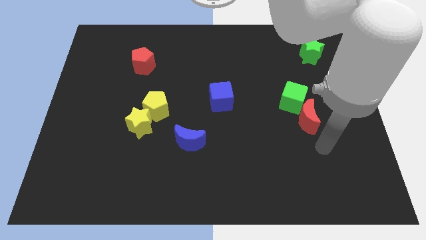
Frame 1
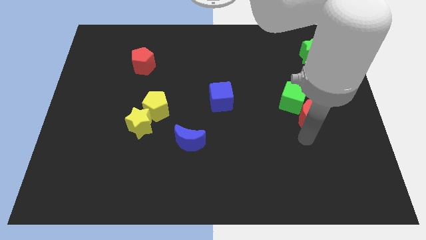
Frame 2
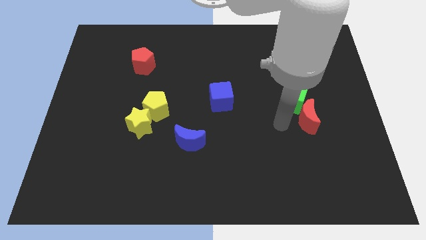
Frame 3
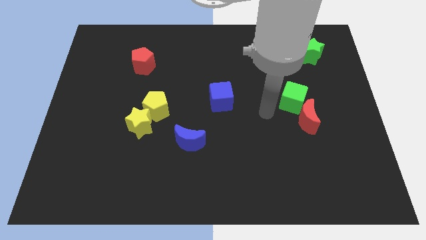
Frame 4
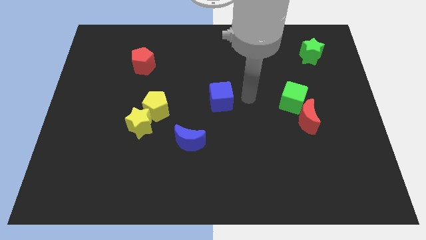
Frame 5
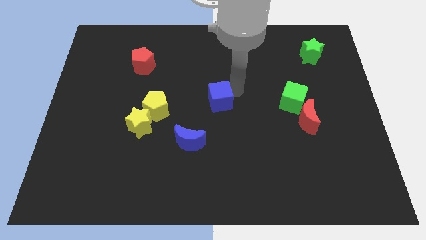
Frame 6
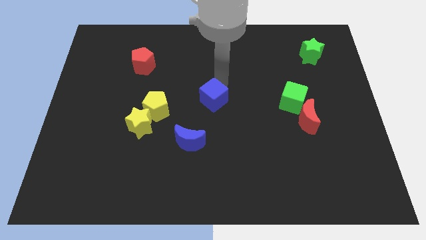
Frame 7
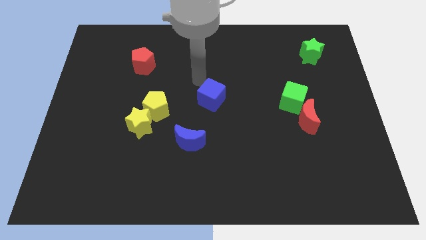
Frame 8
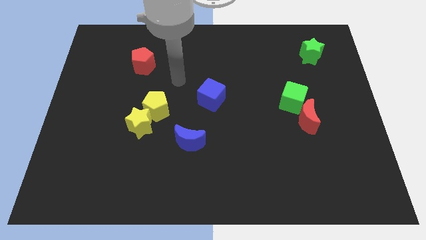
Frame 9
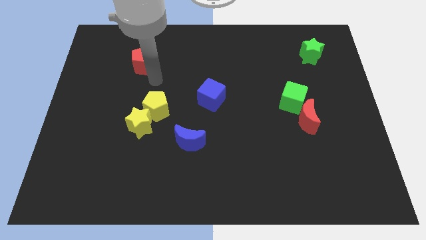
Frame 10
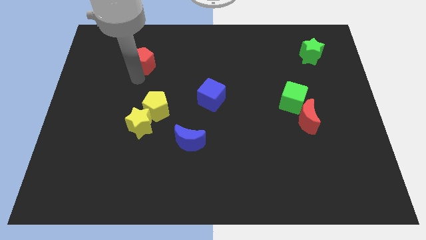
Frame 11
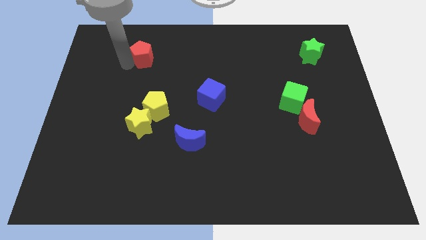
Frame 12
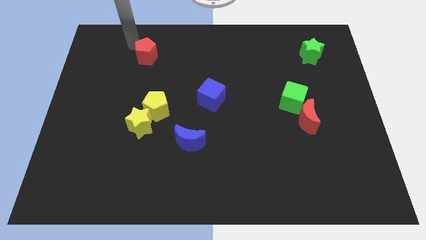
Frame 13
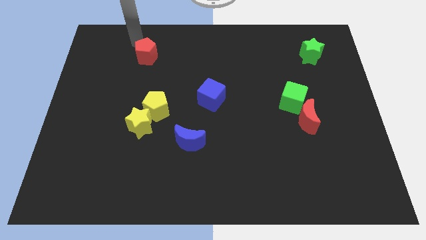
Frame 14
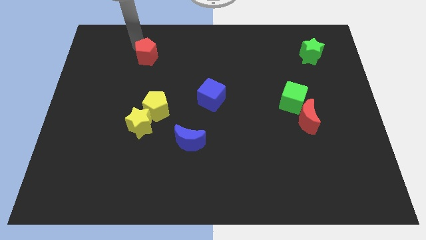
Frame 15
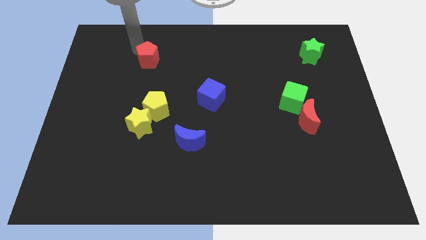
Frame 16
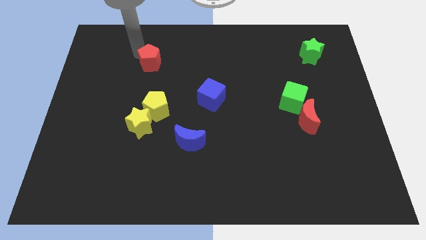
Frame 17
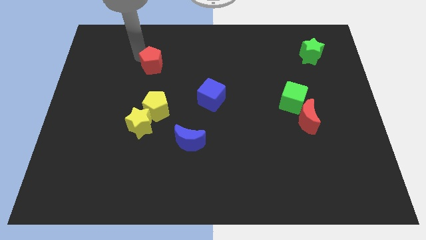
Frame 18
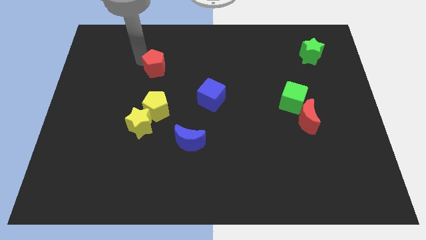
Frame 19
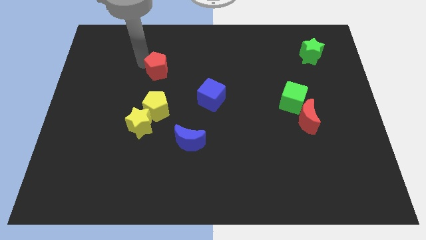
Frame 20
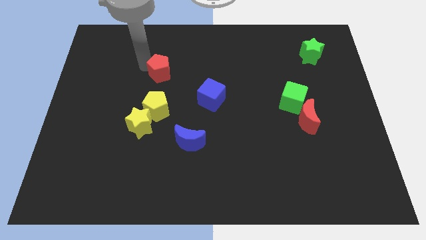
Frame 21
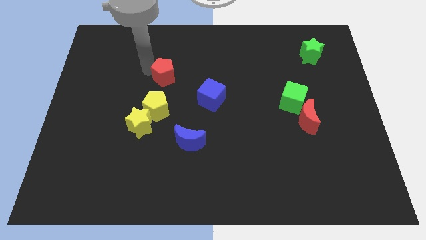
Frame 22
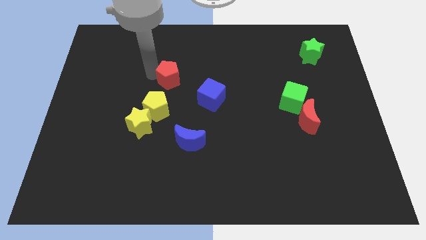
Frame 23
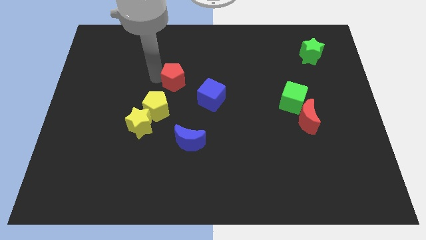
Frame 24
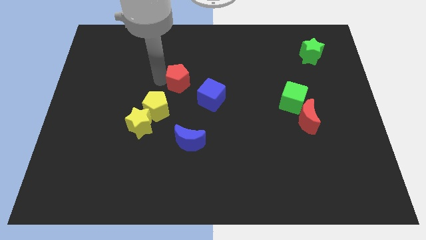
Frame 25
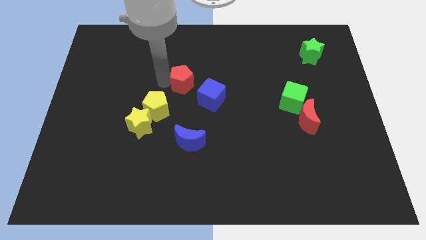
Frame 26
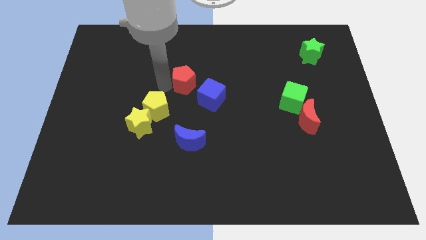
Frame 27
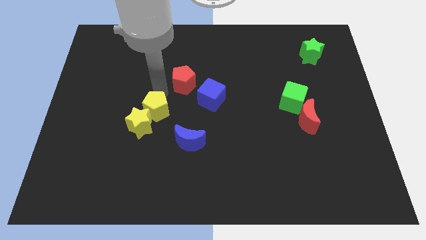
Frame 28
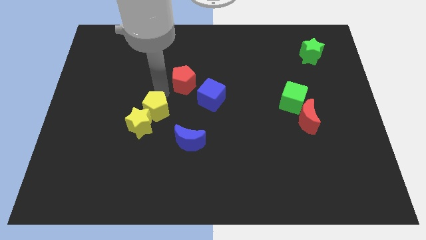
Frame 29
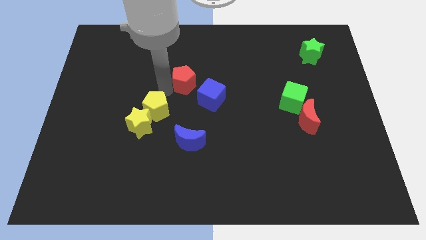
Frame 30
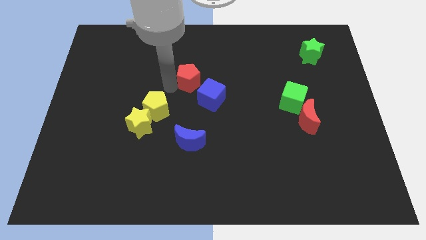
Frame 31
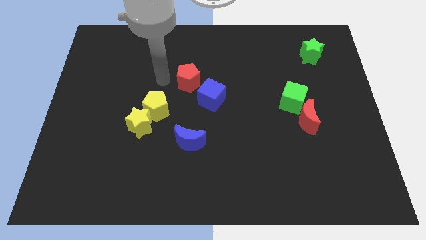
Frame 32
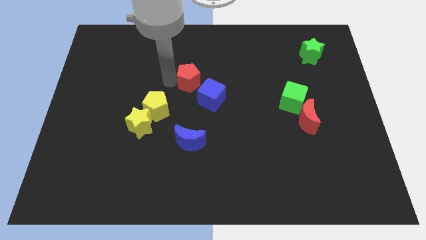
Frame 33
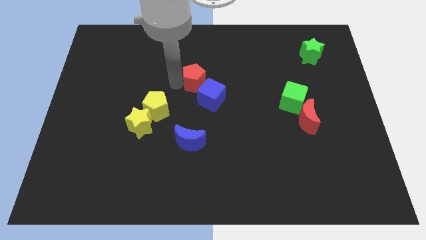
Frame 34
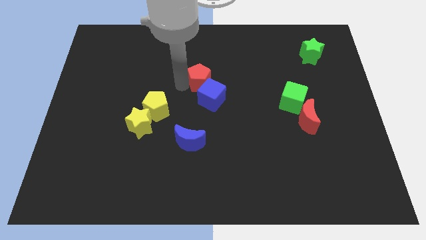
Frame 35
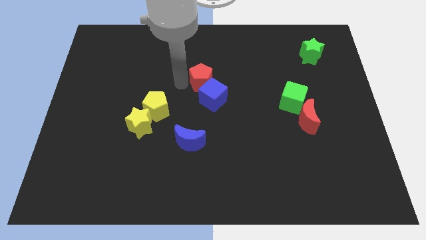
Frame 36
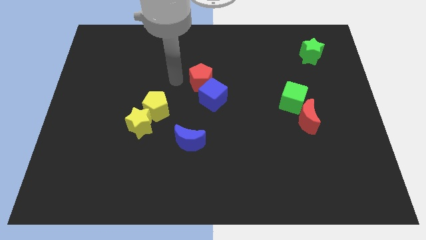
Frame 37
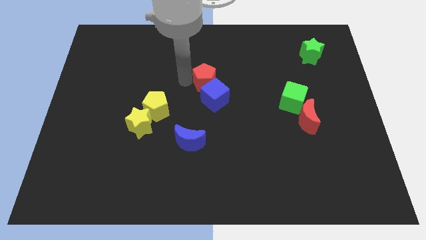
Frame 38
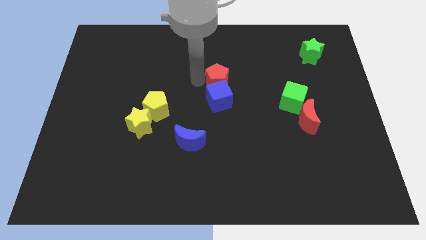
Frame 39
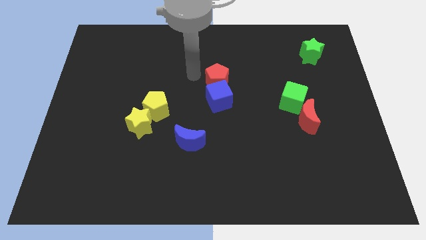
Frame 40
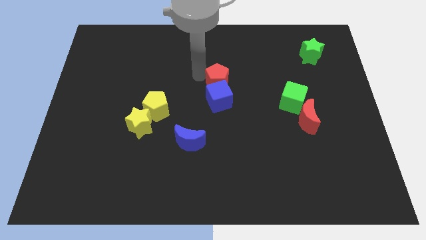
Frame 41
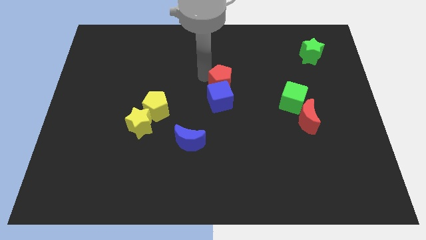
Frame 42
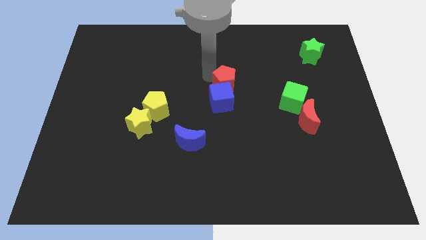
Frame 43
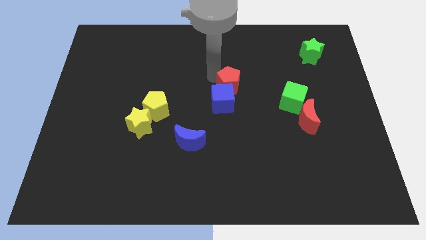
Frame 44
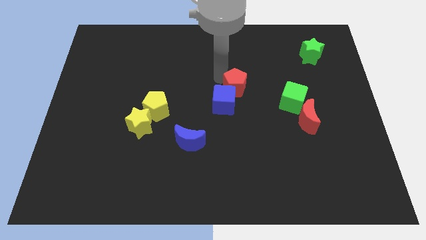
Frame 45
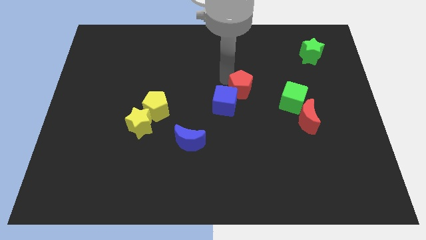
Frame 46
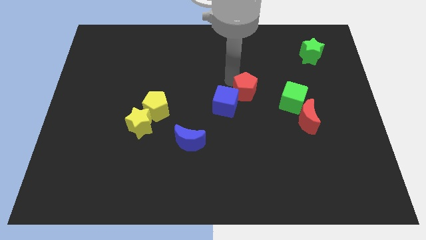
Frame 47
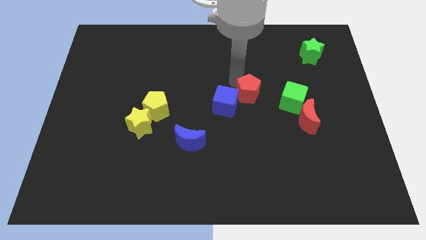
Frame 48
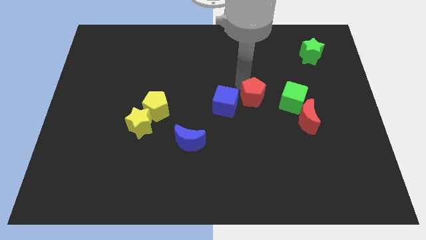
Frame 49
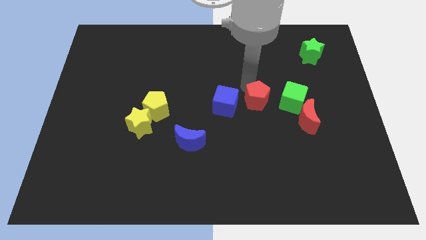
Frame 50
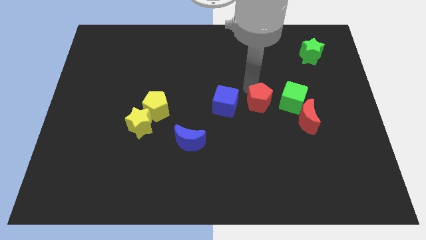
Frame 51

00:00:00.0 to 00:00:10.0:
move the red pentagon to the top left side of the red moon

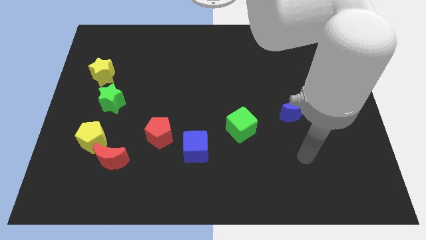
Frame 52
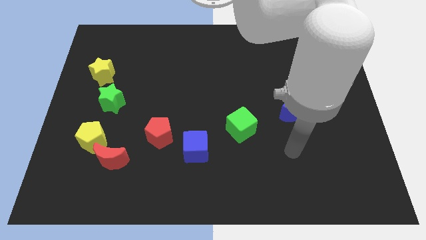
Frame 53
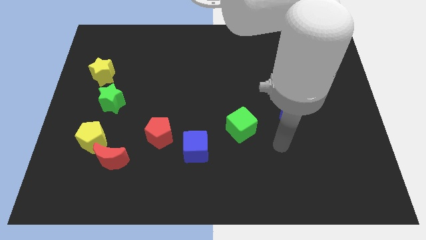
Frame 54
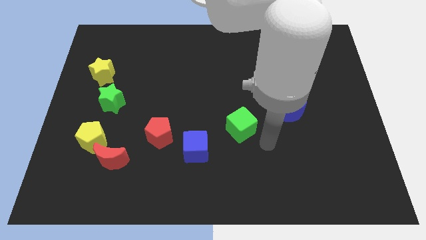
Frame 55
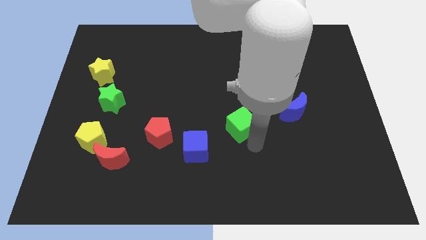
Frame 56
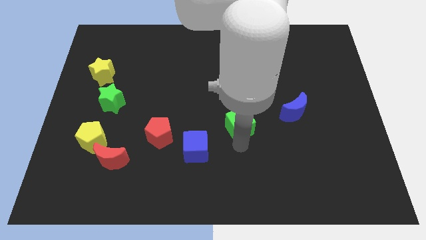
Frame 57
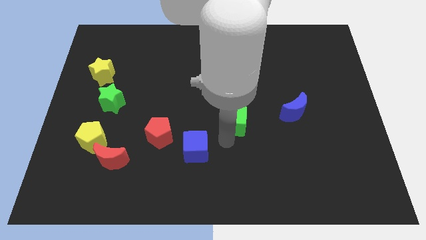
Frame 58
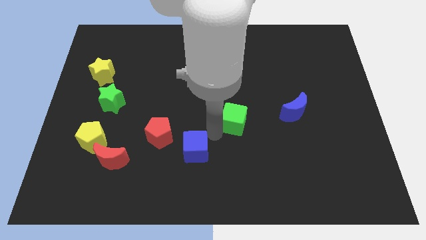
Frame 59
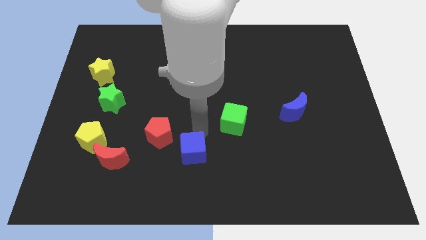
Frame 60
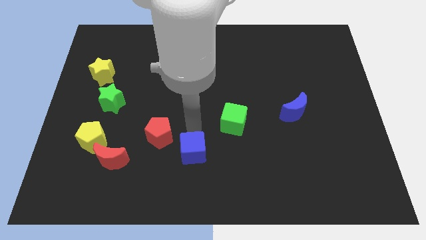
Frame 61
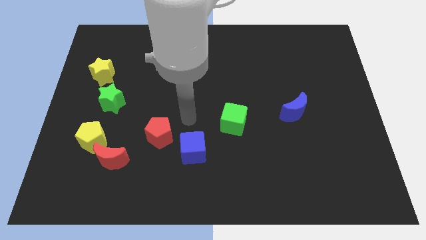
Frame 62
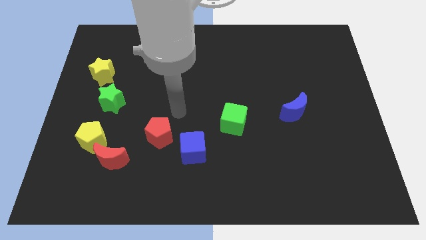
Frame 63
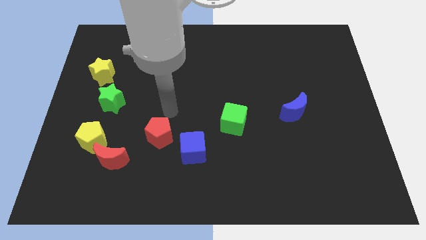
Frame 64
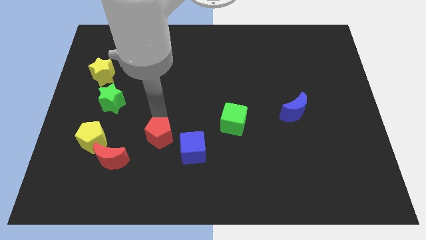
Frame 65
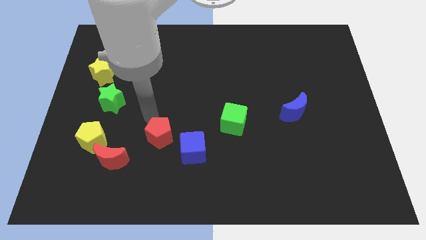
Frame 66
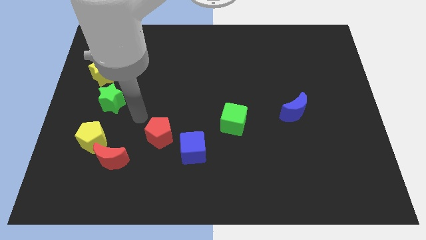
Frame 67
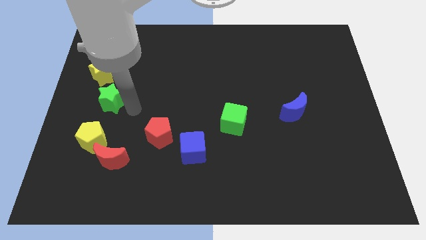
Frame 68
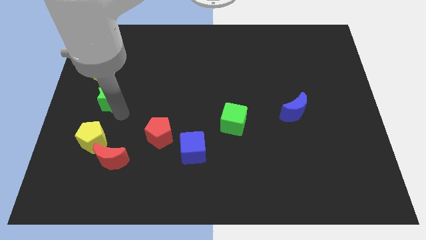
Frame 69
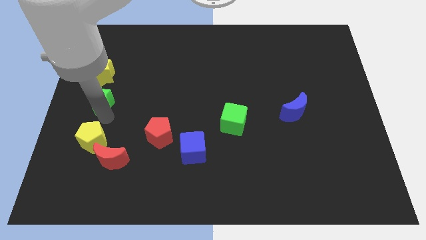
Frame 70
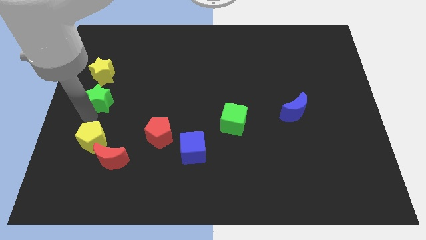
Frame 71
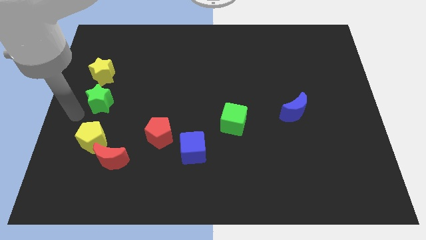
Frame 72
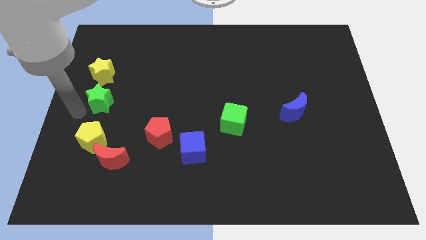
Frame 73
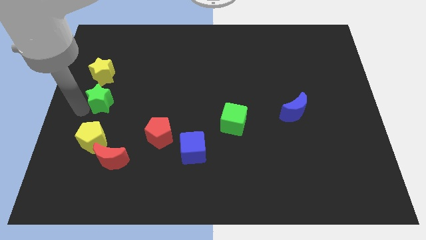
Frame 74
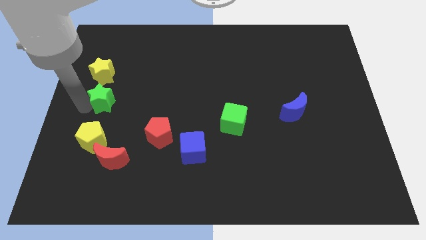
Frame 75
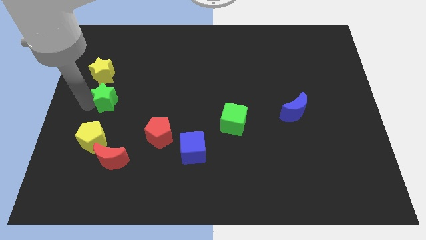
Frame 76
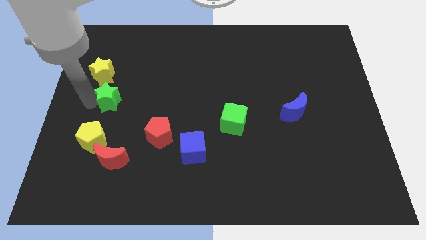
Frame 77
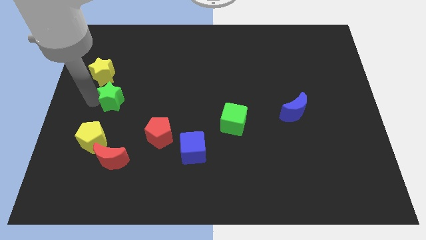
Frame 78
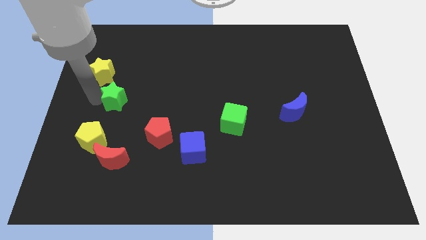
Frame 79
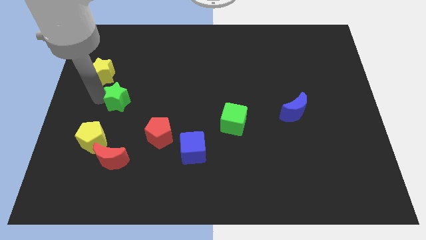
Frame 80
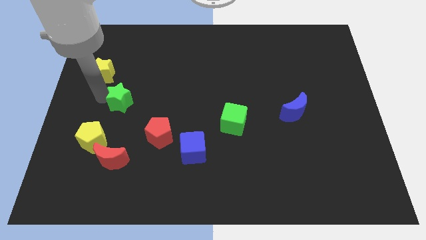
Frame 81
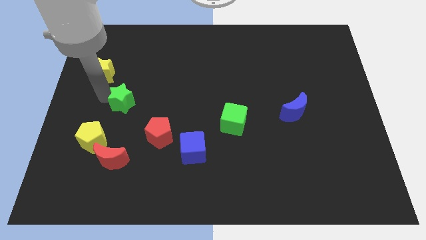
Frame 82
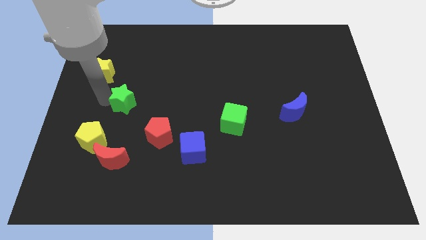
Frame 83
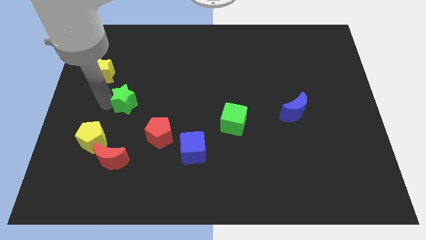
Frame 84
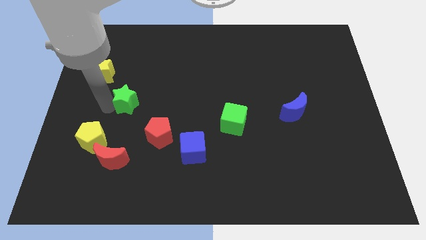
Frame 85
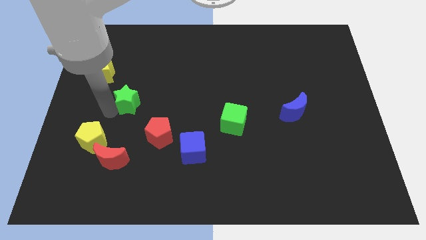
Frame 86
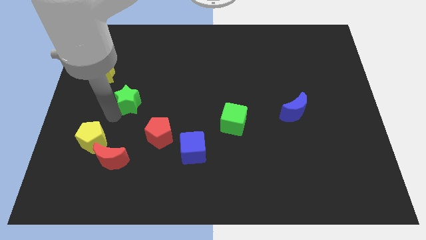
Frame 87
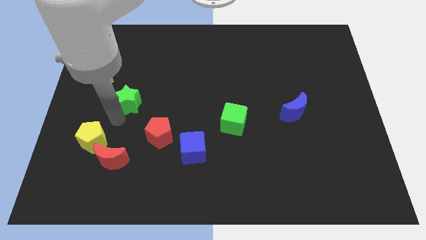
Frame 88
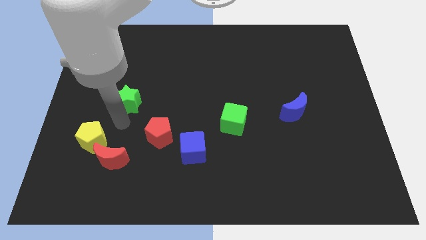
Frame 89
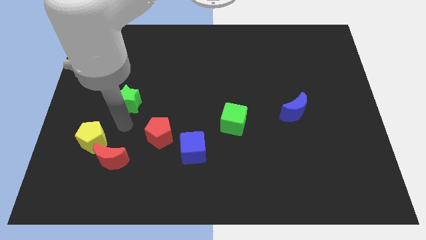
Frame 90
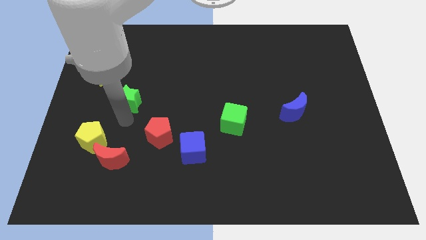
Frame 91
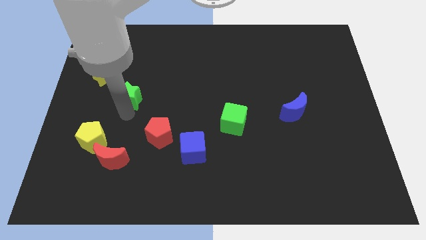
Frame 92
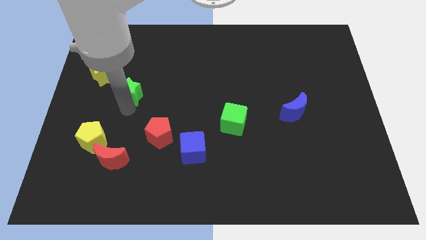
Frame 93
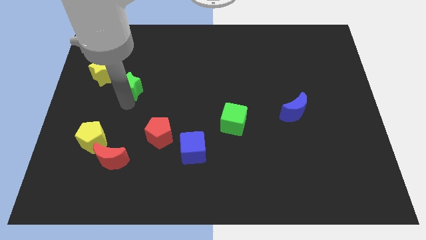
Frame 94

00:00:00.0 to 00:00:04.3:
push the green star just right of the yellow star
